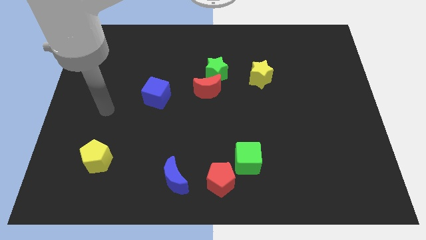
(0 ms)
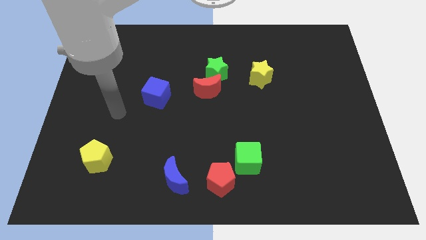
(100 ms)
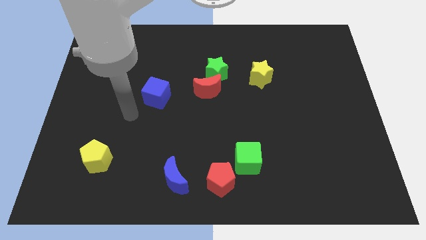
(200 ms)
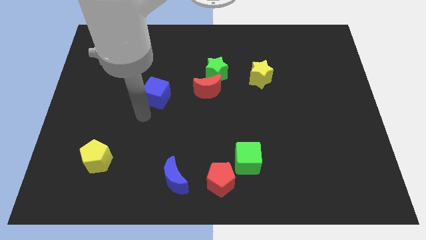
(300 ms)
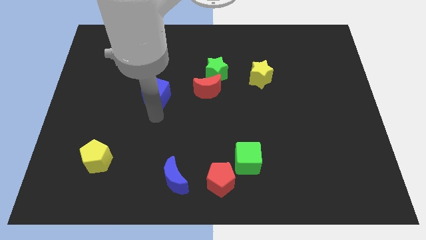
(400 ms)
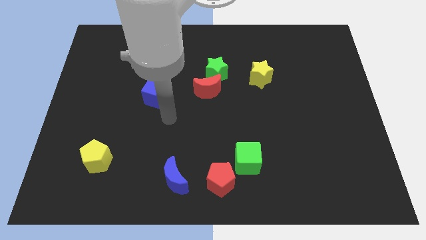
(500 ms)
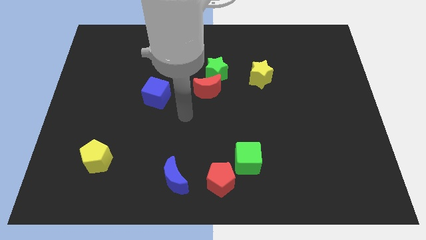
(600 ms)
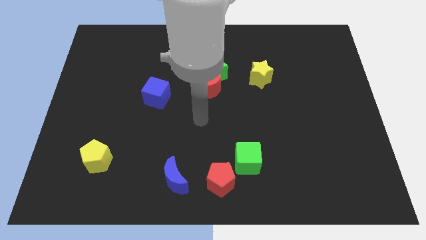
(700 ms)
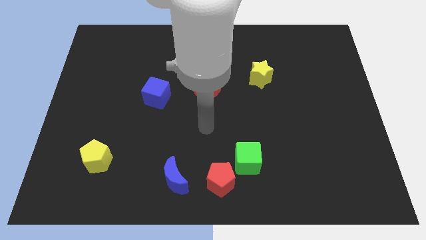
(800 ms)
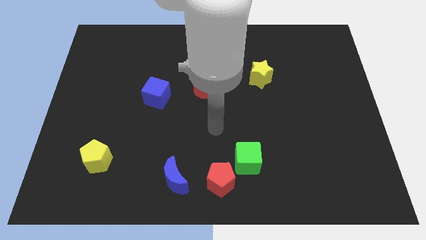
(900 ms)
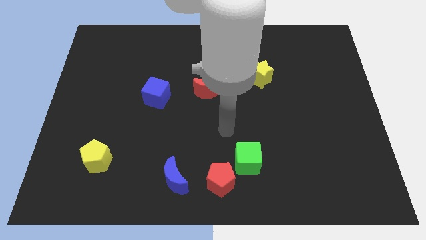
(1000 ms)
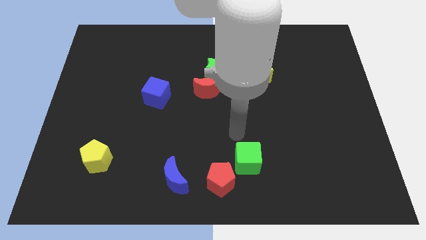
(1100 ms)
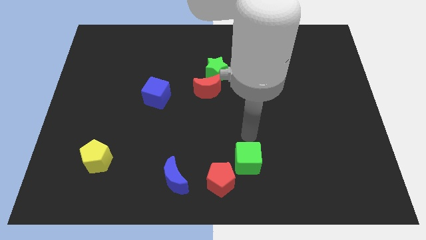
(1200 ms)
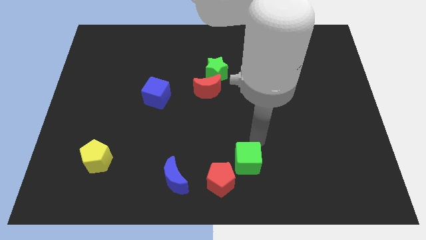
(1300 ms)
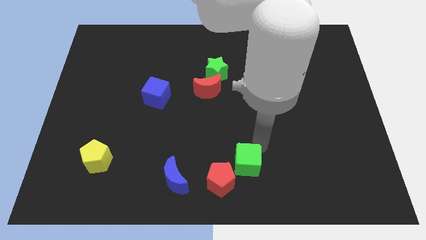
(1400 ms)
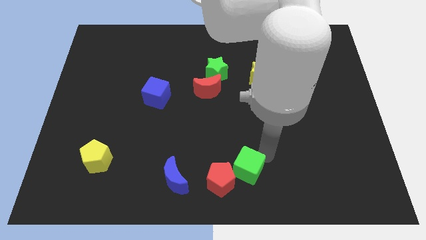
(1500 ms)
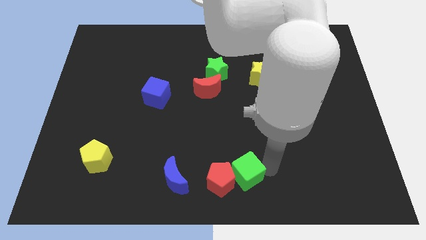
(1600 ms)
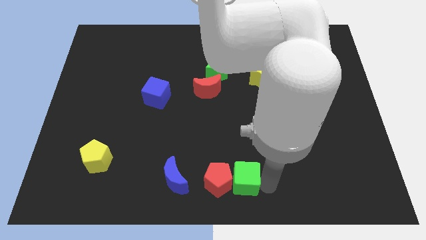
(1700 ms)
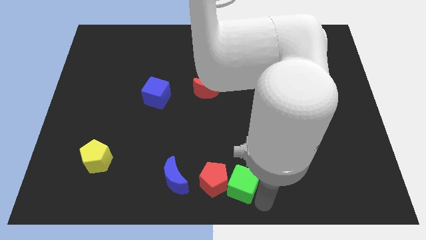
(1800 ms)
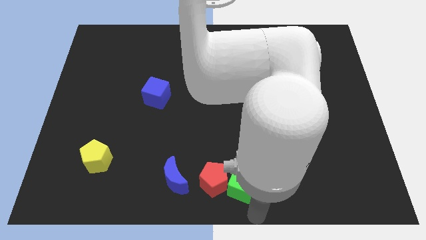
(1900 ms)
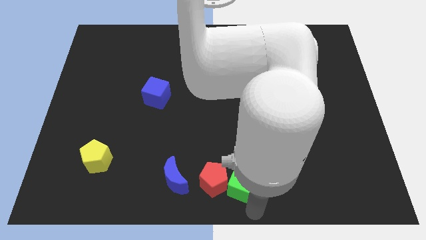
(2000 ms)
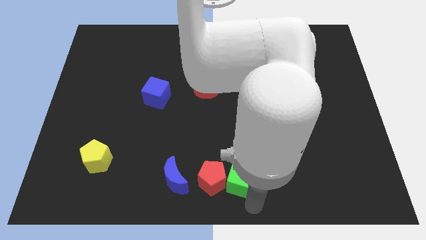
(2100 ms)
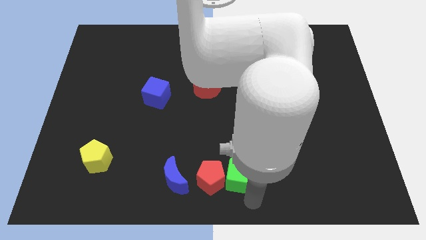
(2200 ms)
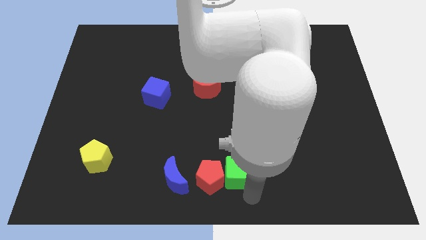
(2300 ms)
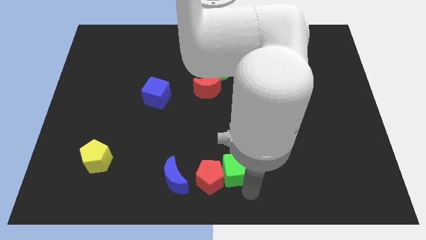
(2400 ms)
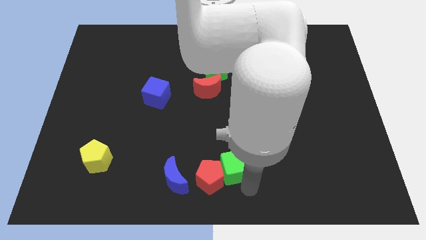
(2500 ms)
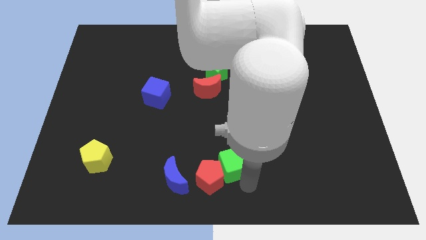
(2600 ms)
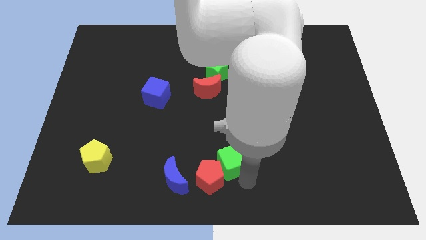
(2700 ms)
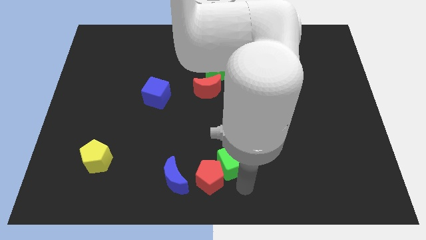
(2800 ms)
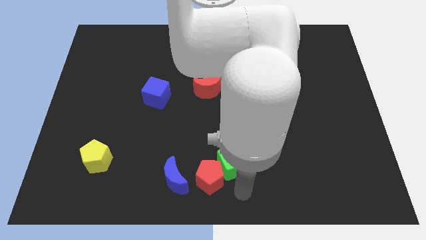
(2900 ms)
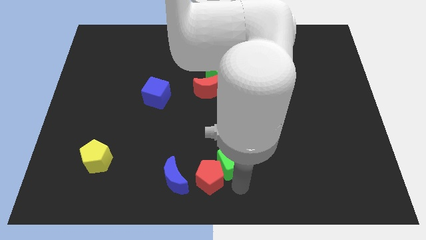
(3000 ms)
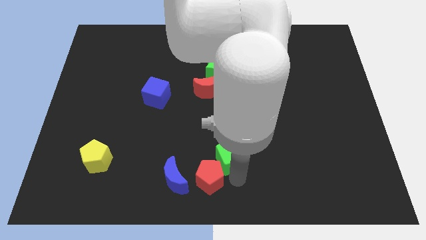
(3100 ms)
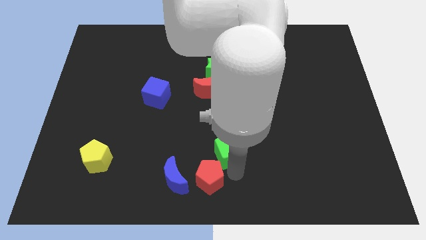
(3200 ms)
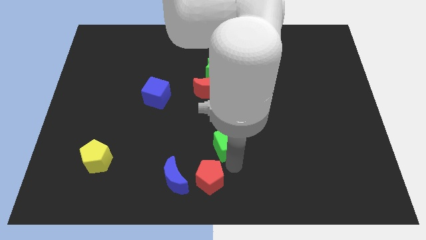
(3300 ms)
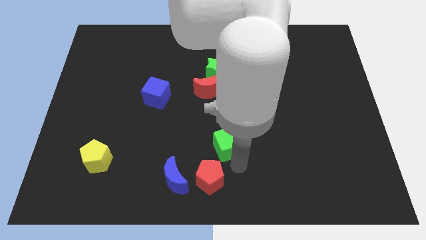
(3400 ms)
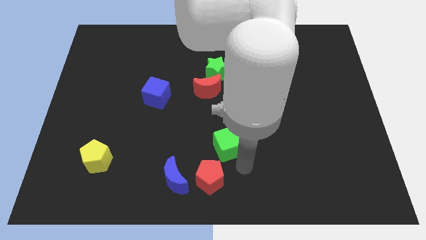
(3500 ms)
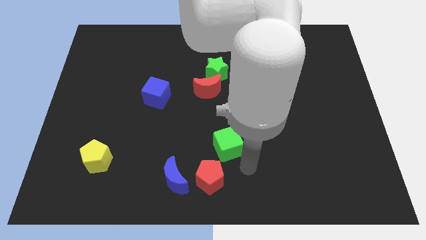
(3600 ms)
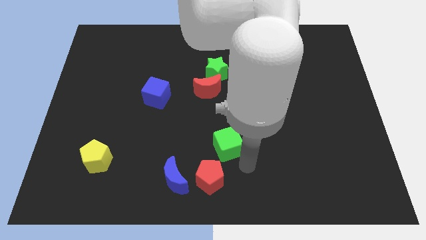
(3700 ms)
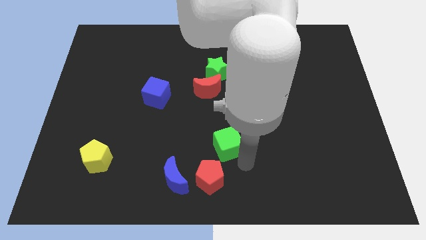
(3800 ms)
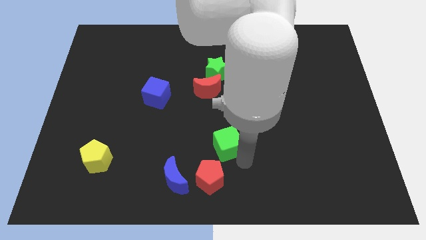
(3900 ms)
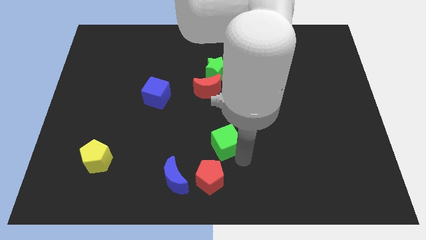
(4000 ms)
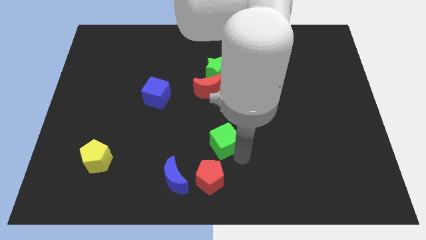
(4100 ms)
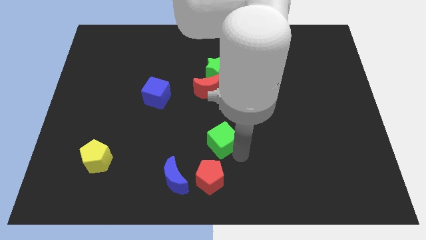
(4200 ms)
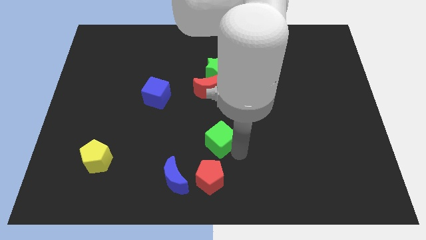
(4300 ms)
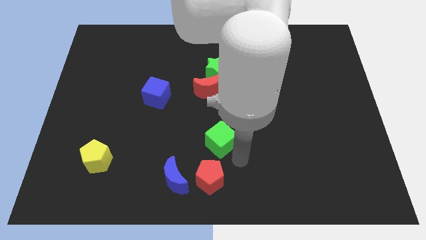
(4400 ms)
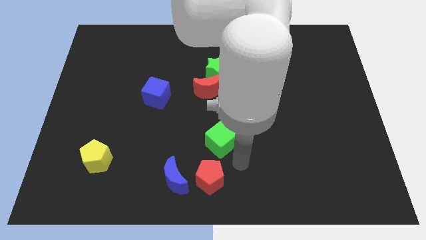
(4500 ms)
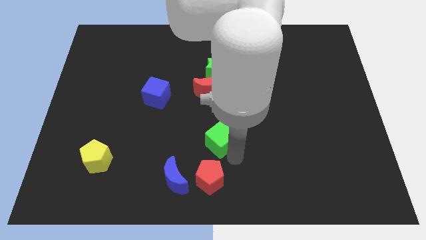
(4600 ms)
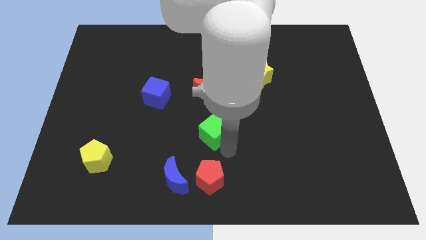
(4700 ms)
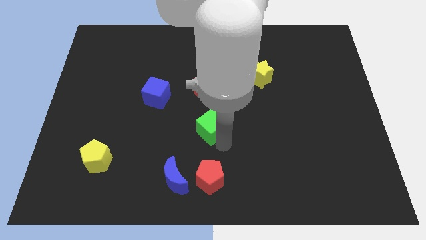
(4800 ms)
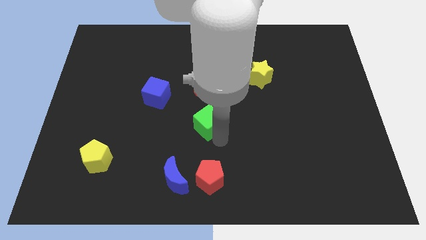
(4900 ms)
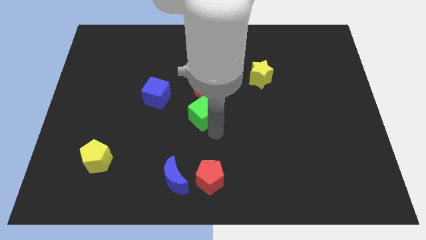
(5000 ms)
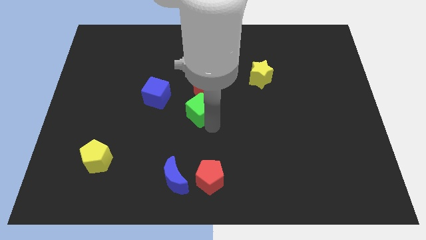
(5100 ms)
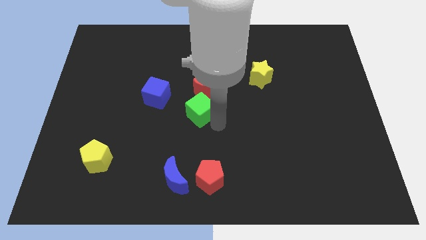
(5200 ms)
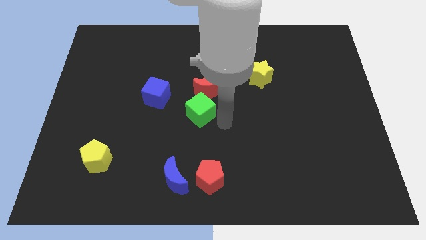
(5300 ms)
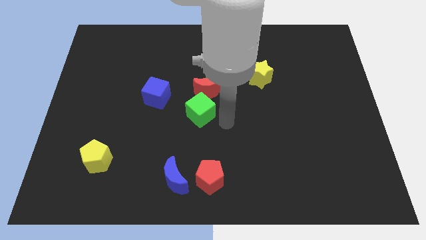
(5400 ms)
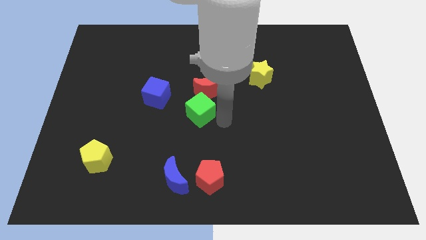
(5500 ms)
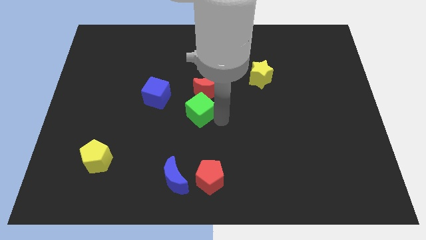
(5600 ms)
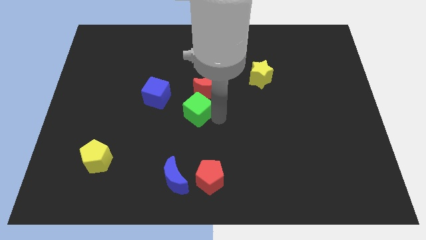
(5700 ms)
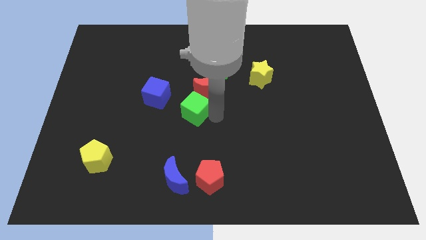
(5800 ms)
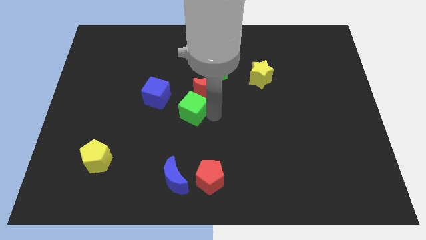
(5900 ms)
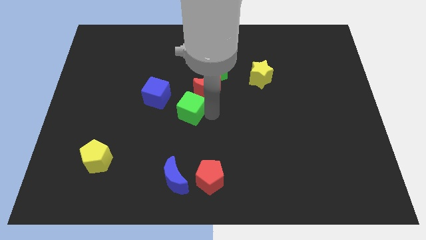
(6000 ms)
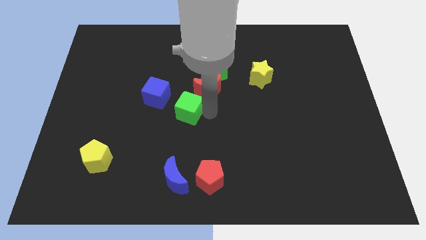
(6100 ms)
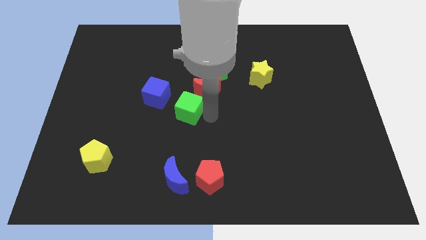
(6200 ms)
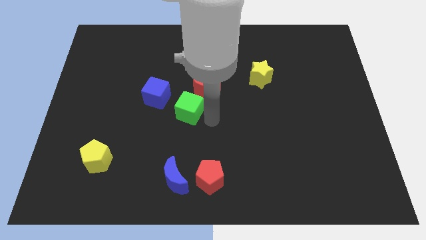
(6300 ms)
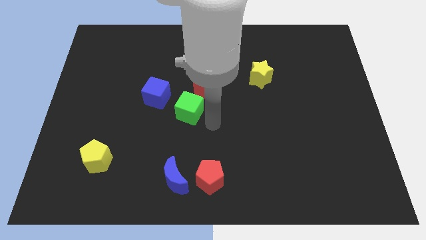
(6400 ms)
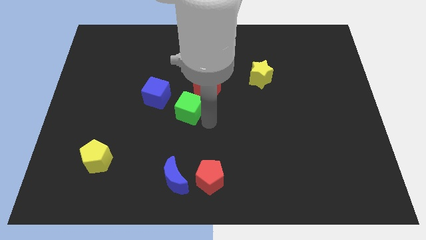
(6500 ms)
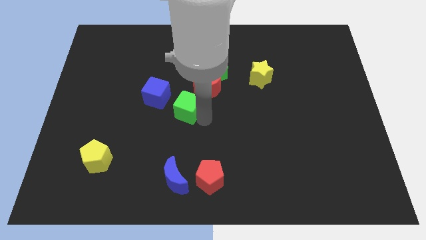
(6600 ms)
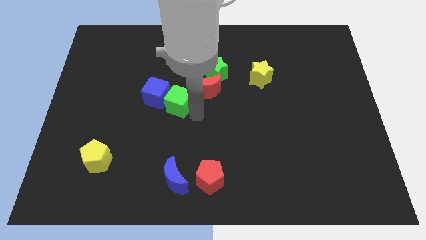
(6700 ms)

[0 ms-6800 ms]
slide the green cube next to the blue cube

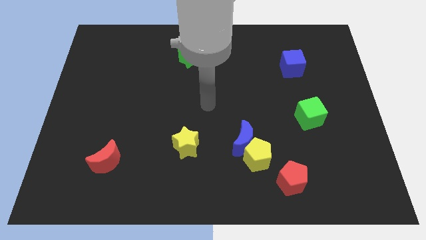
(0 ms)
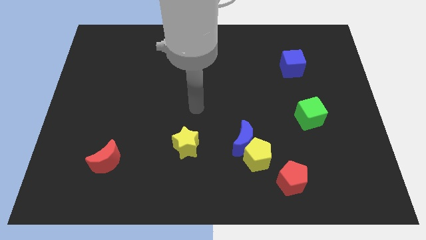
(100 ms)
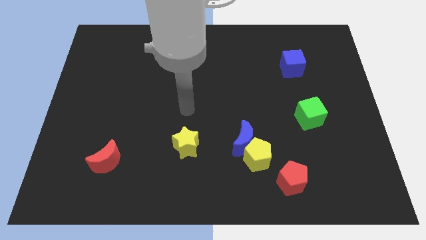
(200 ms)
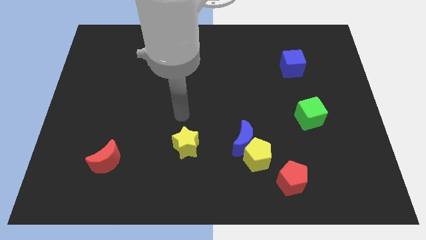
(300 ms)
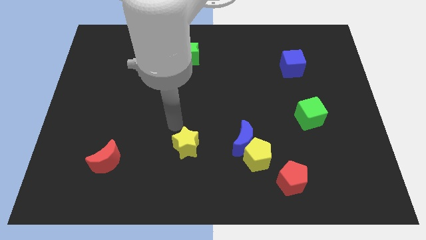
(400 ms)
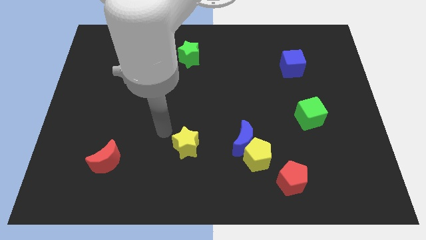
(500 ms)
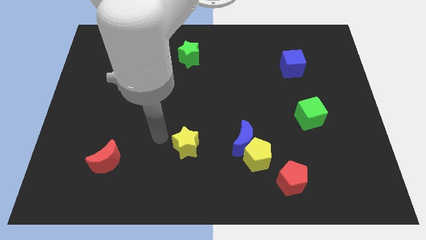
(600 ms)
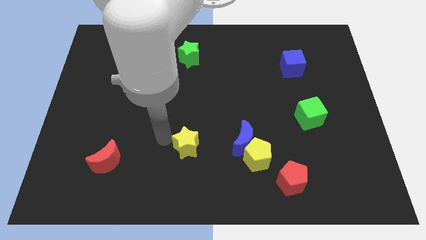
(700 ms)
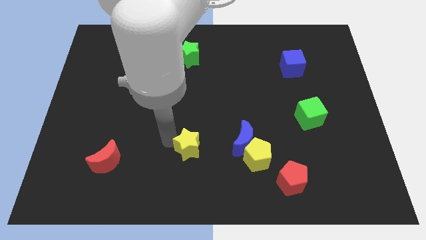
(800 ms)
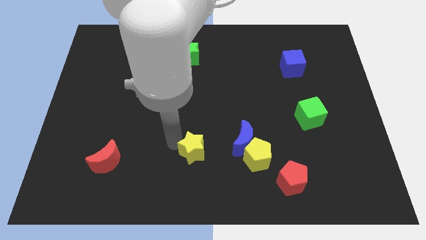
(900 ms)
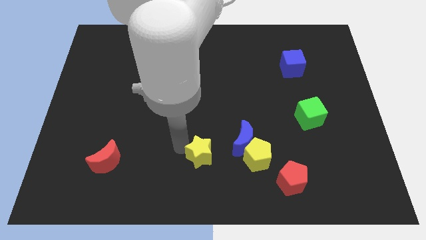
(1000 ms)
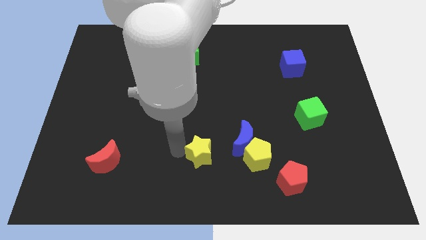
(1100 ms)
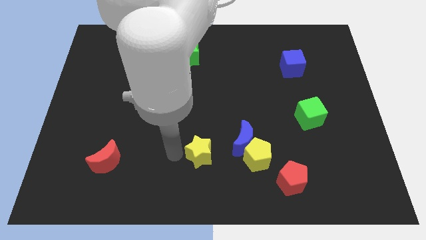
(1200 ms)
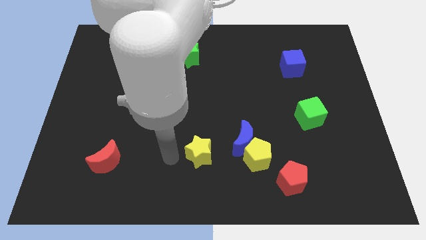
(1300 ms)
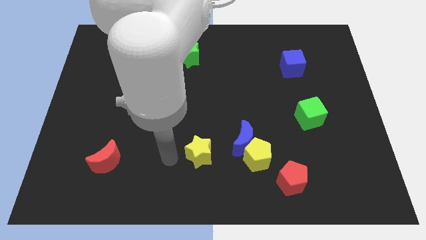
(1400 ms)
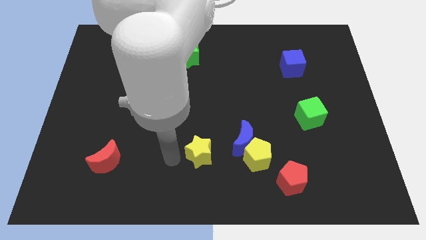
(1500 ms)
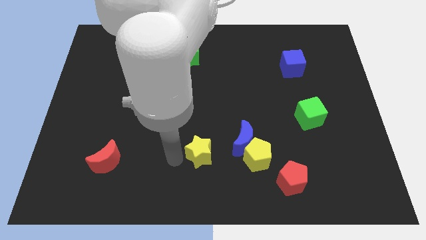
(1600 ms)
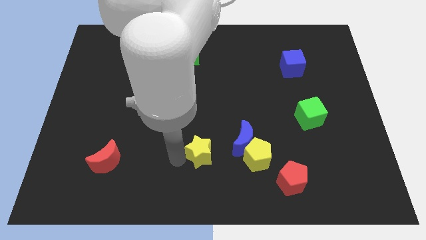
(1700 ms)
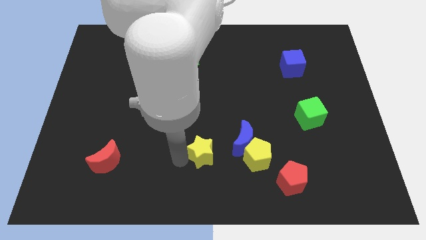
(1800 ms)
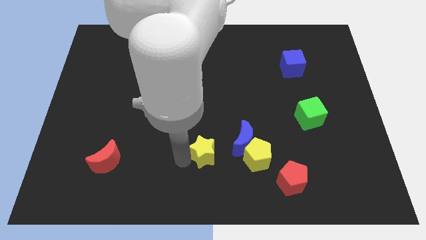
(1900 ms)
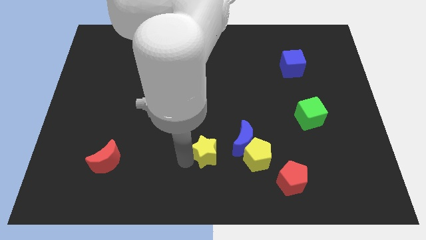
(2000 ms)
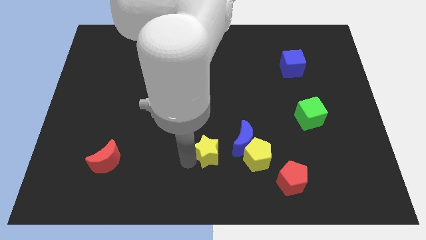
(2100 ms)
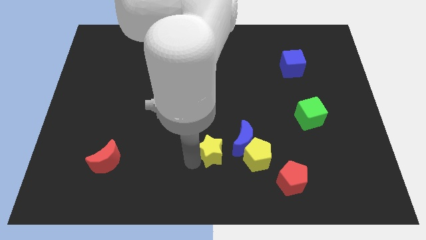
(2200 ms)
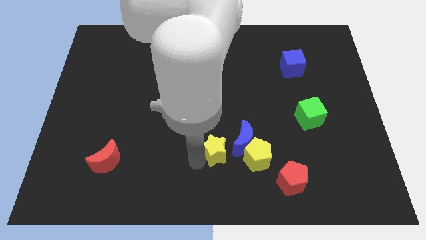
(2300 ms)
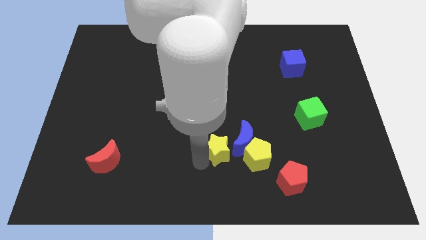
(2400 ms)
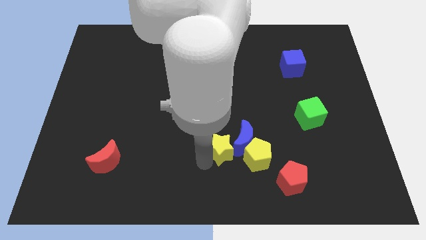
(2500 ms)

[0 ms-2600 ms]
move the yellow star towards the blue moon
